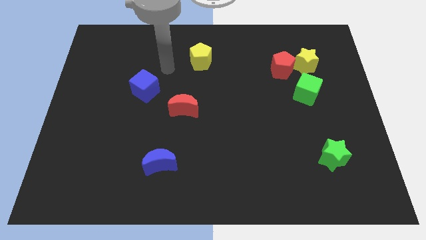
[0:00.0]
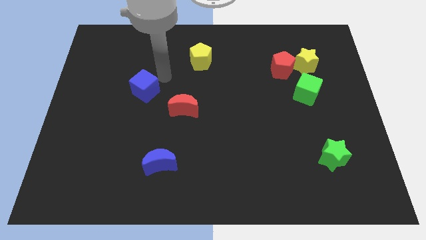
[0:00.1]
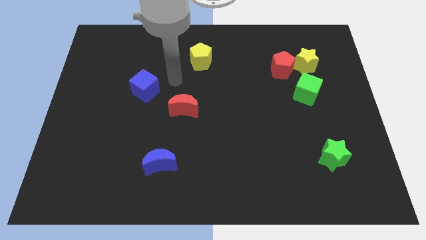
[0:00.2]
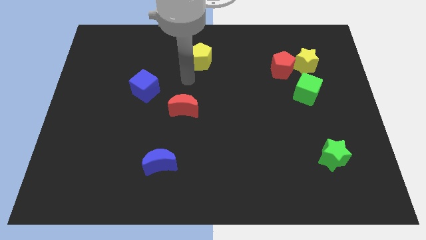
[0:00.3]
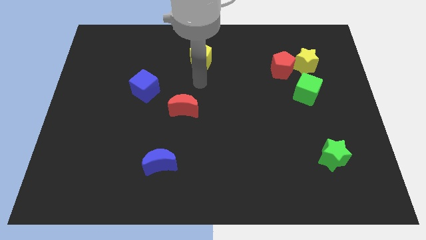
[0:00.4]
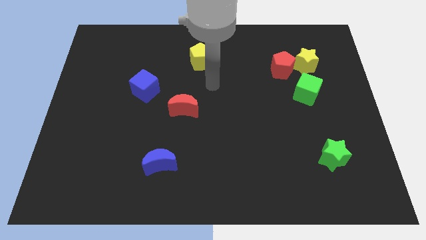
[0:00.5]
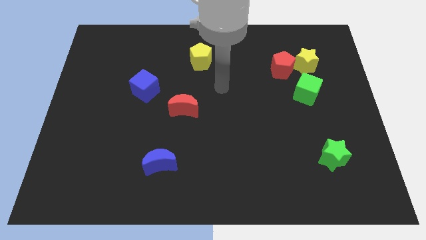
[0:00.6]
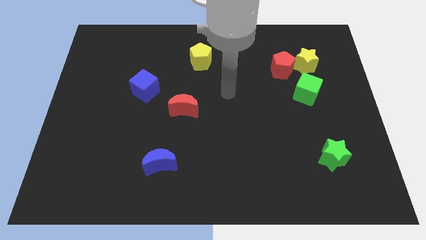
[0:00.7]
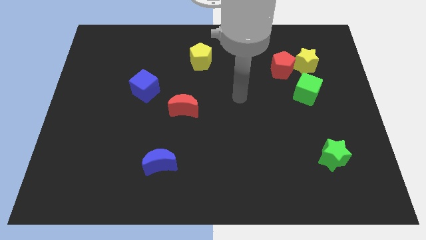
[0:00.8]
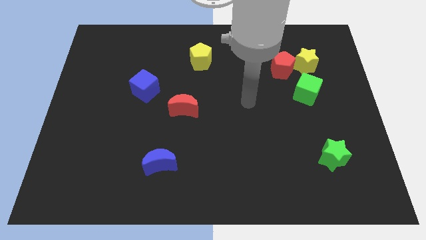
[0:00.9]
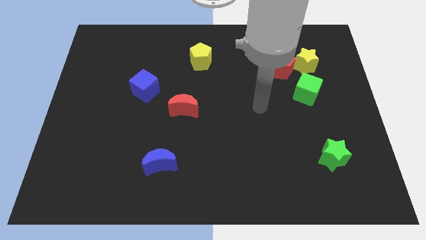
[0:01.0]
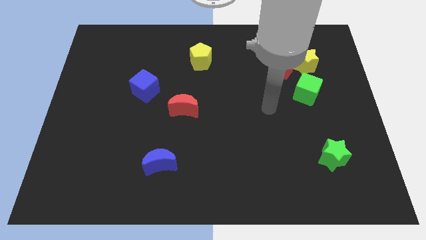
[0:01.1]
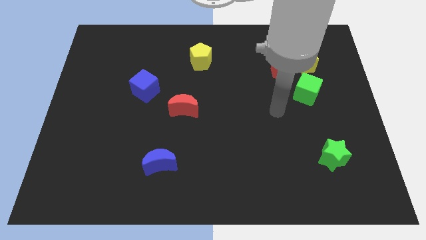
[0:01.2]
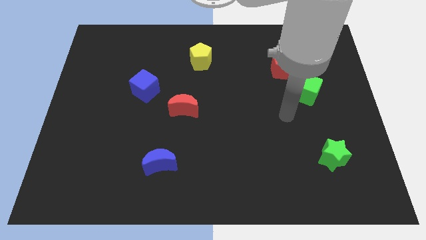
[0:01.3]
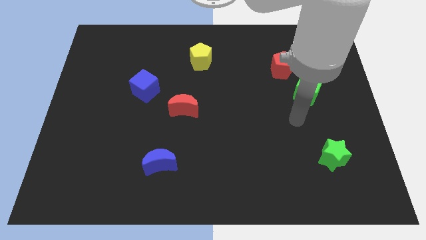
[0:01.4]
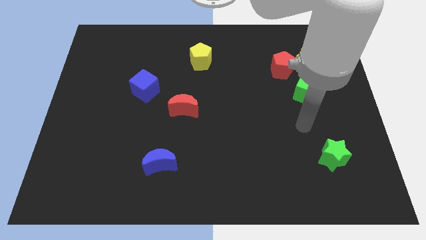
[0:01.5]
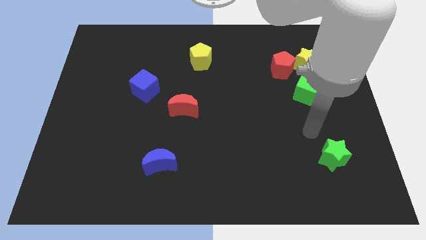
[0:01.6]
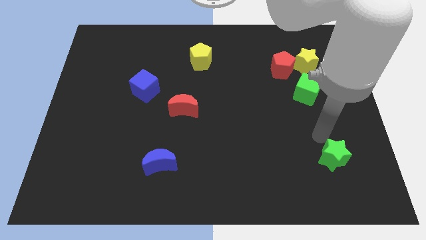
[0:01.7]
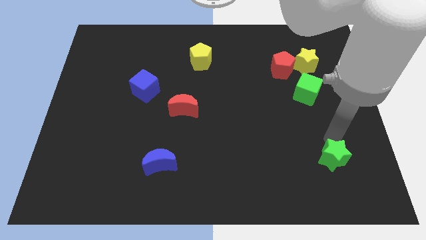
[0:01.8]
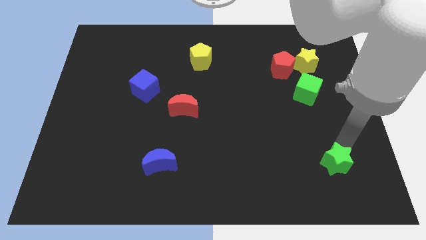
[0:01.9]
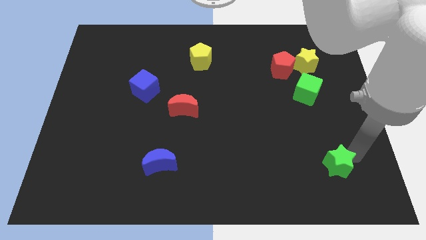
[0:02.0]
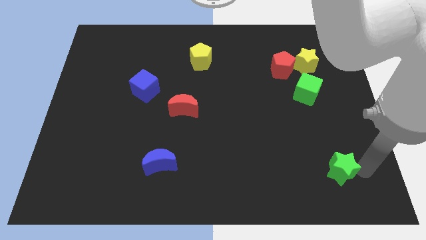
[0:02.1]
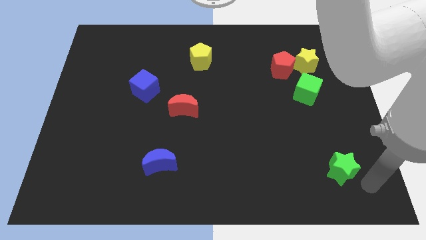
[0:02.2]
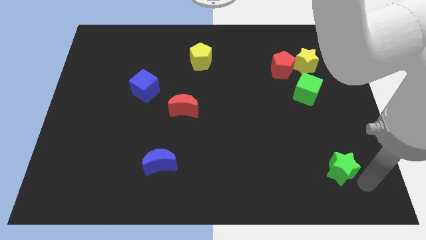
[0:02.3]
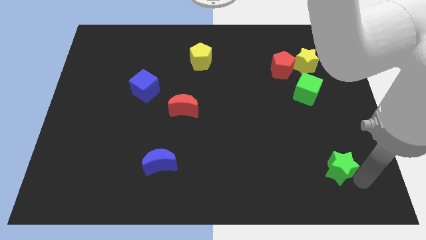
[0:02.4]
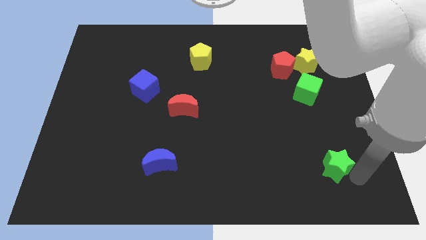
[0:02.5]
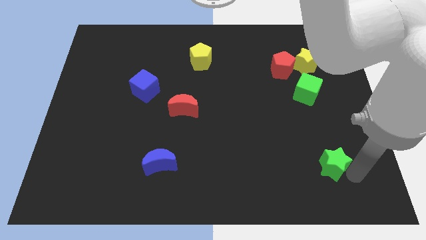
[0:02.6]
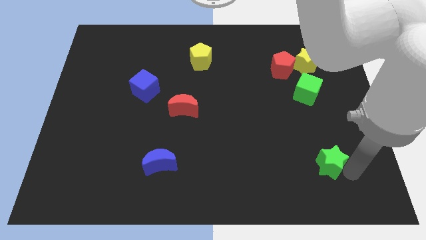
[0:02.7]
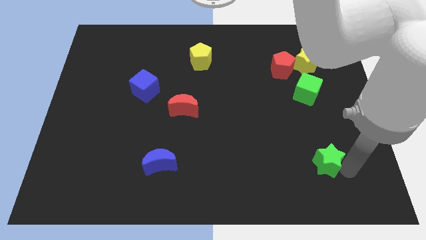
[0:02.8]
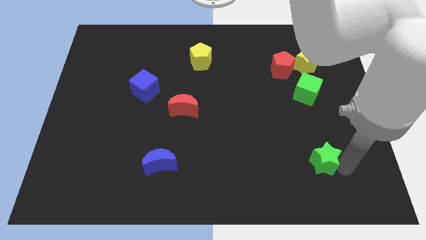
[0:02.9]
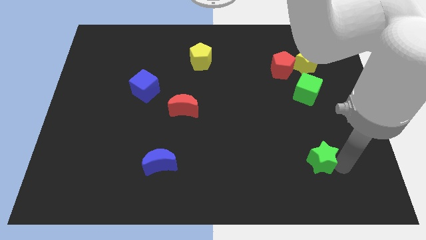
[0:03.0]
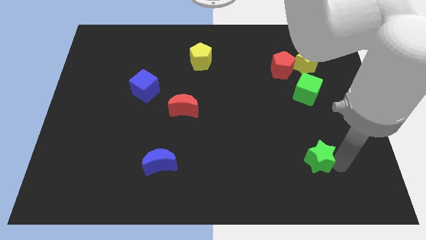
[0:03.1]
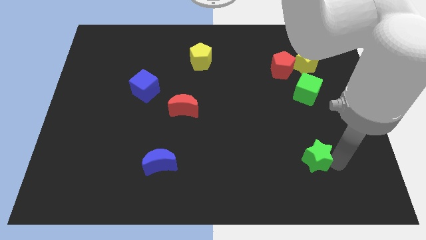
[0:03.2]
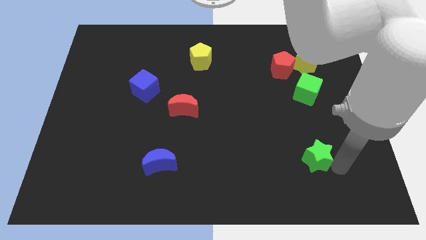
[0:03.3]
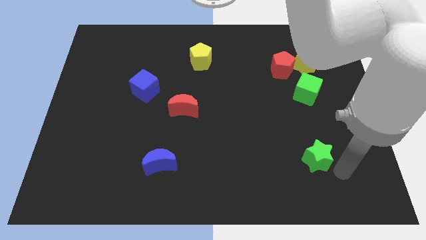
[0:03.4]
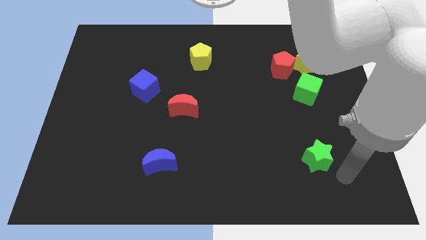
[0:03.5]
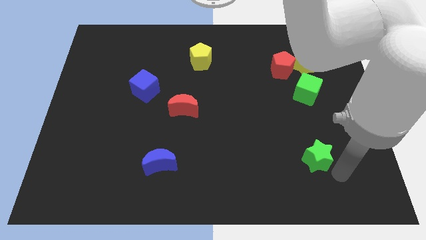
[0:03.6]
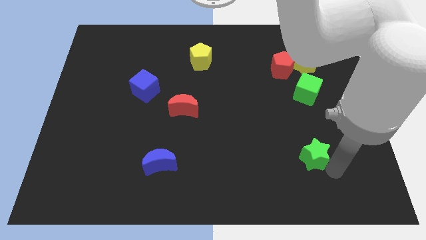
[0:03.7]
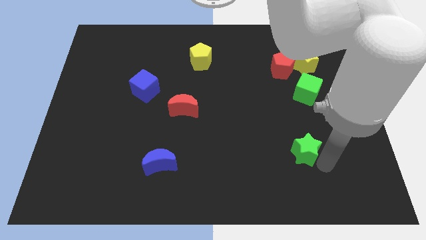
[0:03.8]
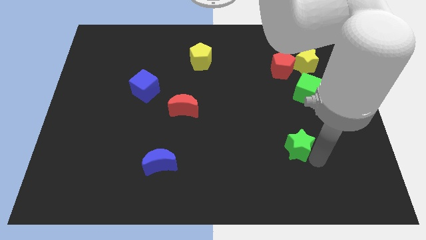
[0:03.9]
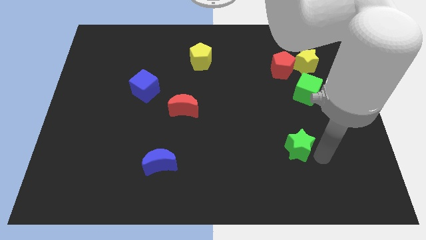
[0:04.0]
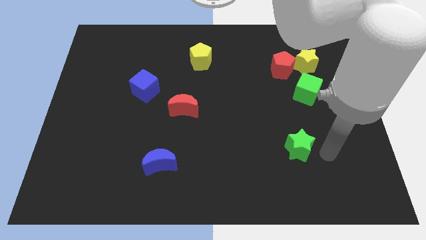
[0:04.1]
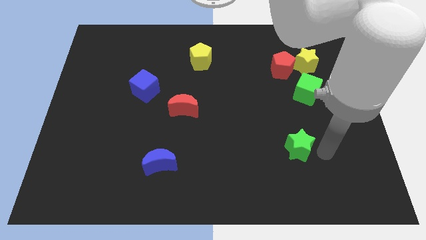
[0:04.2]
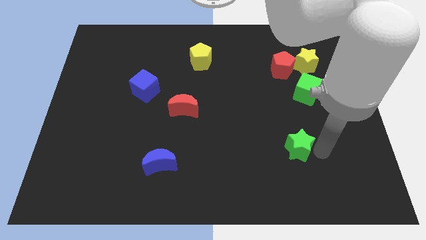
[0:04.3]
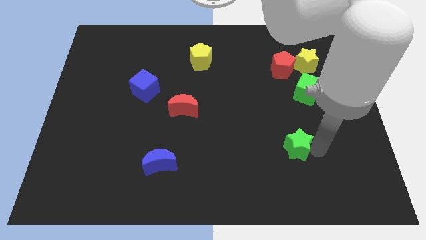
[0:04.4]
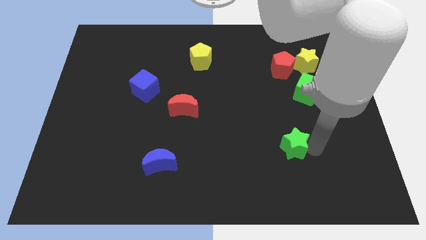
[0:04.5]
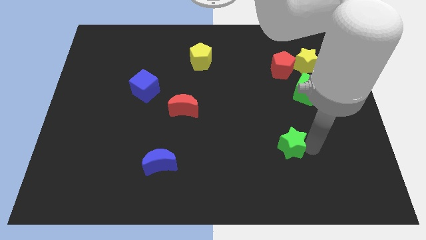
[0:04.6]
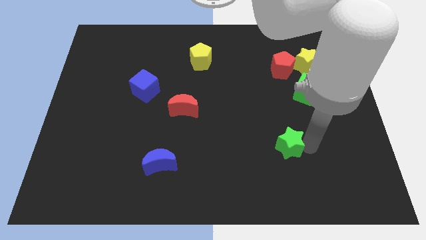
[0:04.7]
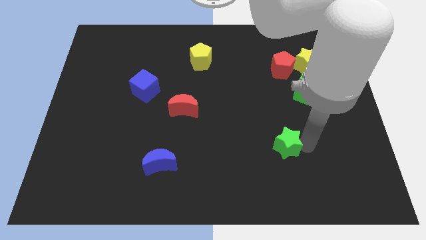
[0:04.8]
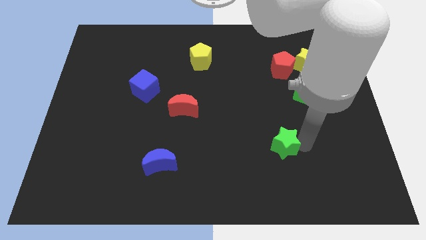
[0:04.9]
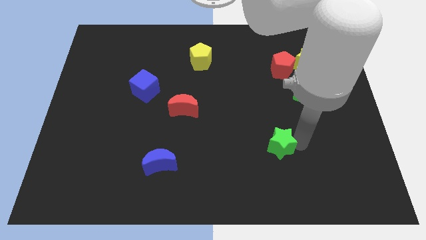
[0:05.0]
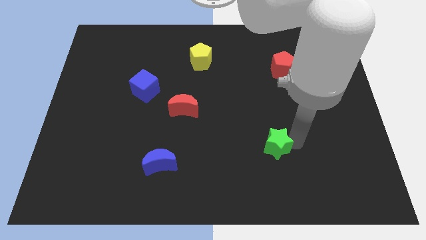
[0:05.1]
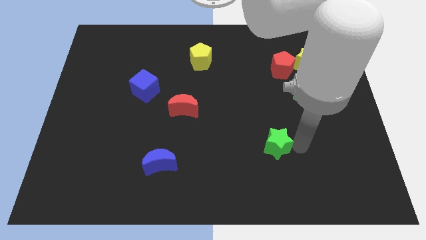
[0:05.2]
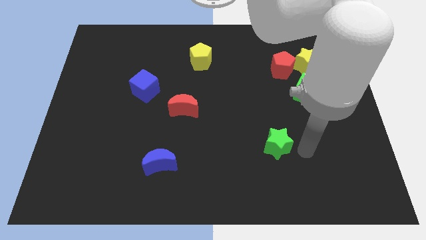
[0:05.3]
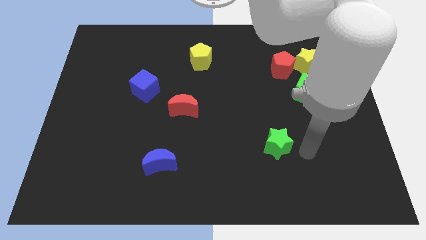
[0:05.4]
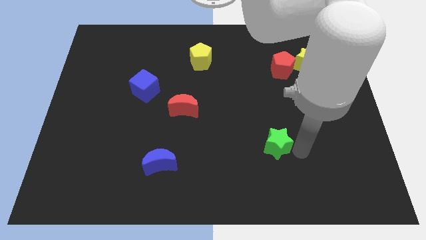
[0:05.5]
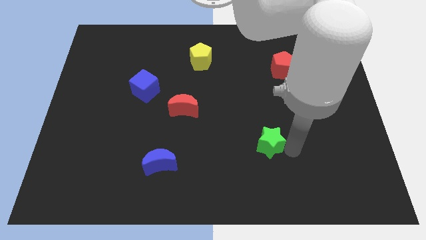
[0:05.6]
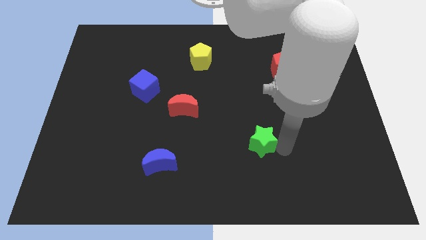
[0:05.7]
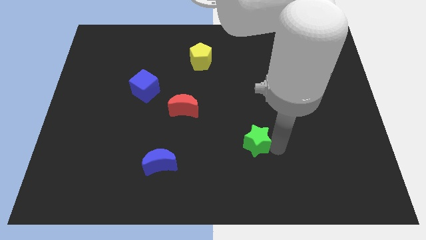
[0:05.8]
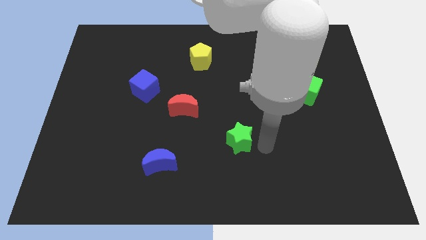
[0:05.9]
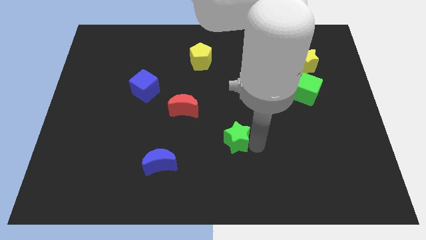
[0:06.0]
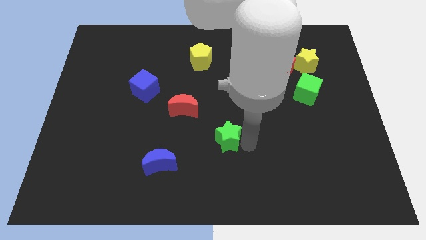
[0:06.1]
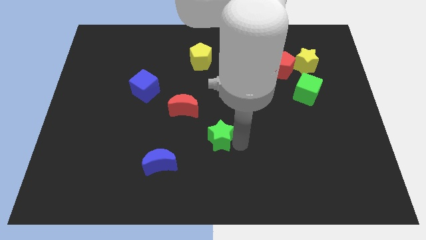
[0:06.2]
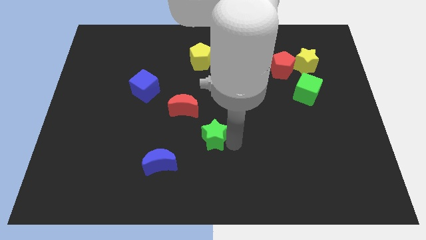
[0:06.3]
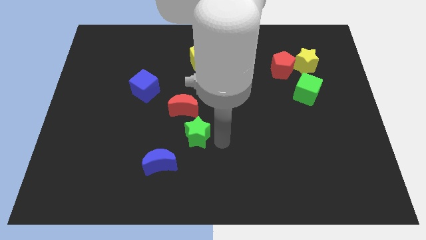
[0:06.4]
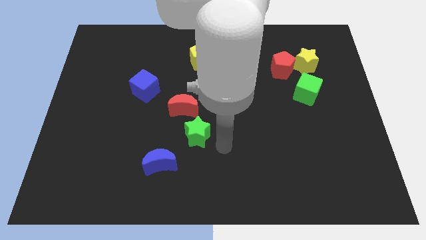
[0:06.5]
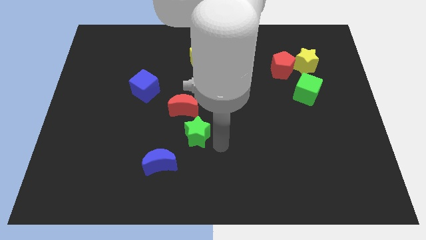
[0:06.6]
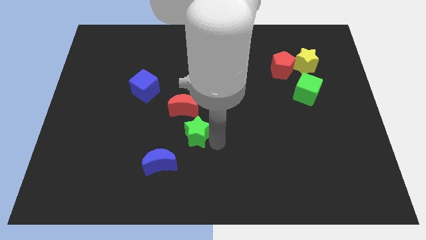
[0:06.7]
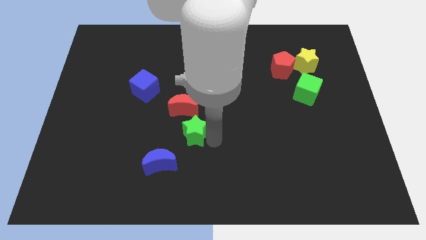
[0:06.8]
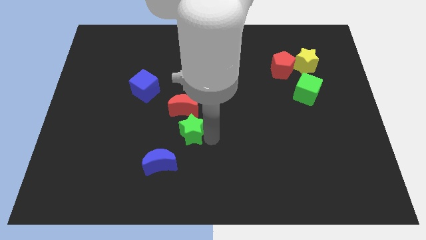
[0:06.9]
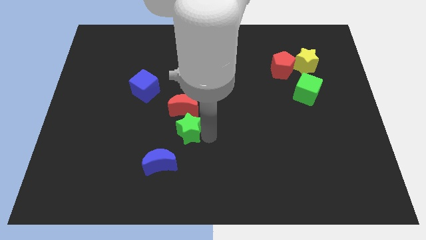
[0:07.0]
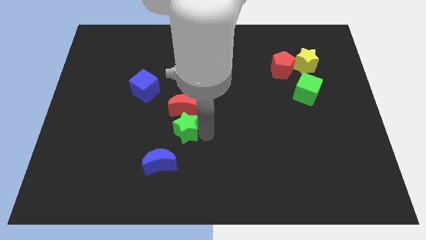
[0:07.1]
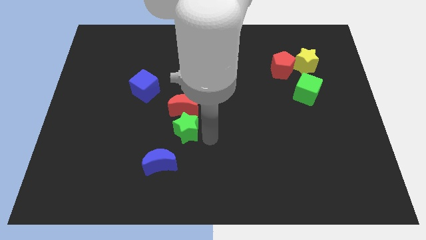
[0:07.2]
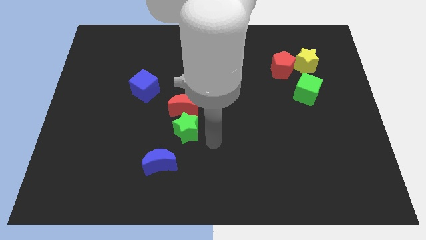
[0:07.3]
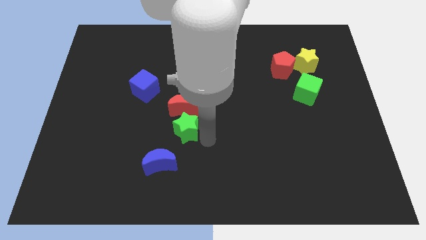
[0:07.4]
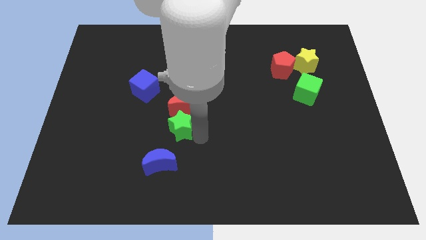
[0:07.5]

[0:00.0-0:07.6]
push the green star above the blue moon
